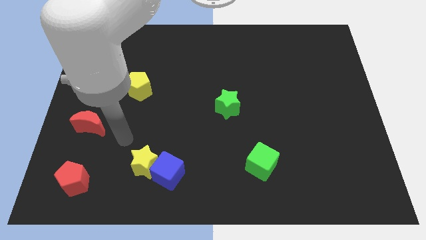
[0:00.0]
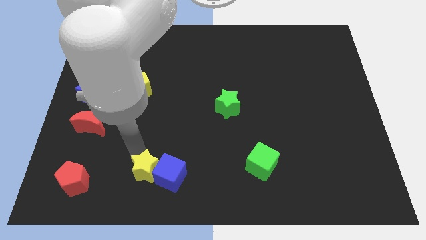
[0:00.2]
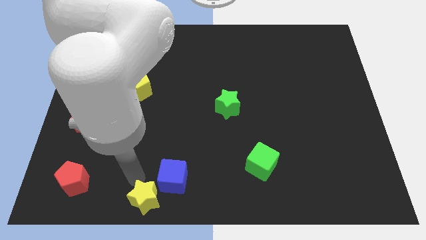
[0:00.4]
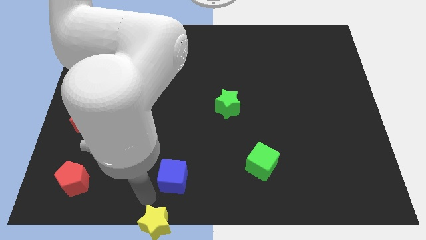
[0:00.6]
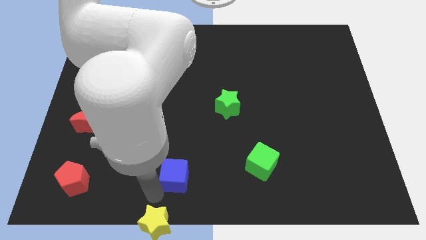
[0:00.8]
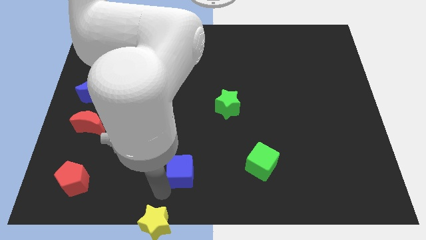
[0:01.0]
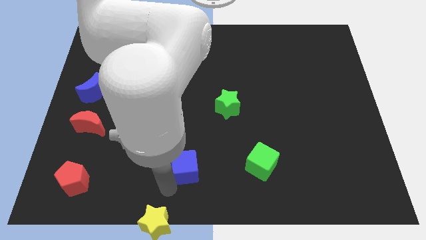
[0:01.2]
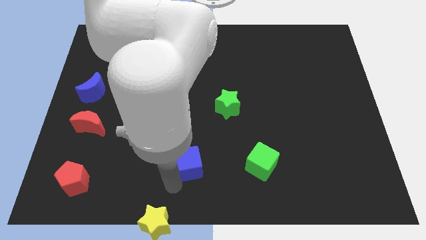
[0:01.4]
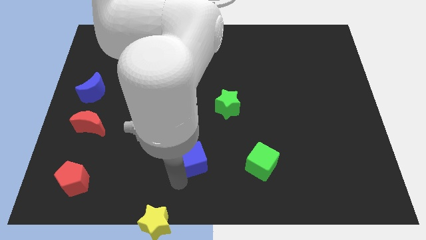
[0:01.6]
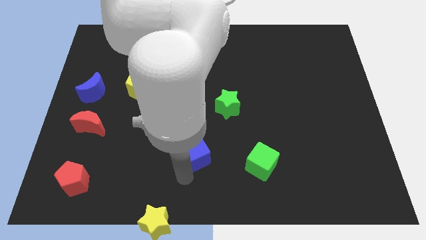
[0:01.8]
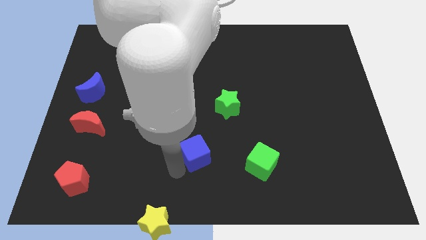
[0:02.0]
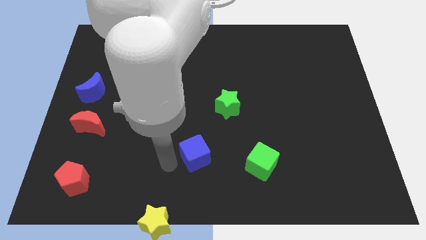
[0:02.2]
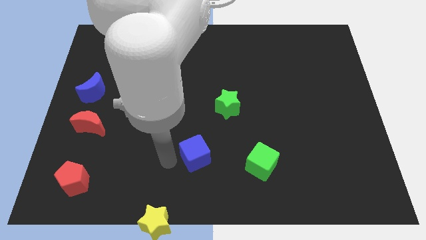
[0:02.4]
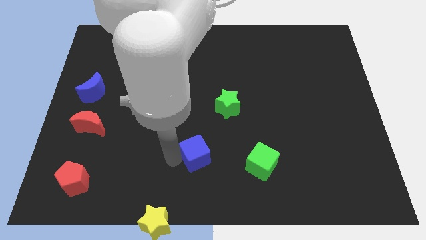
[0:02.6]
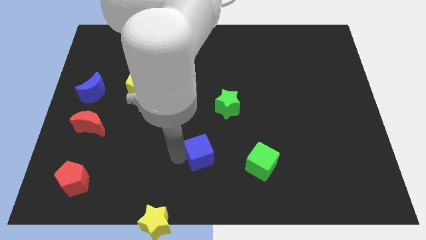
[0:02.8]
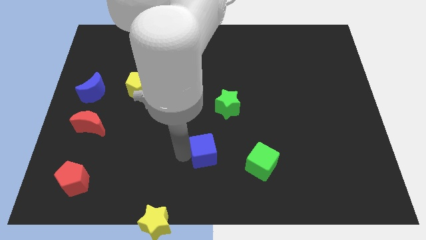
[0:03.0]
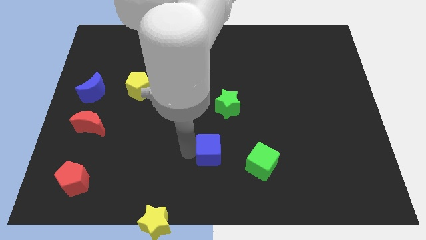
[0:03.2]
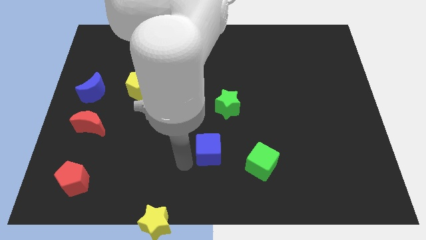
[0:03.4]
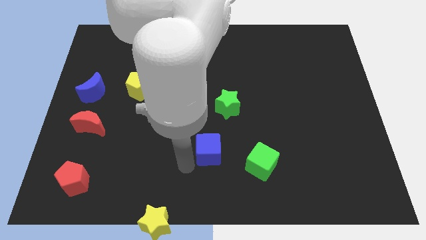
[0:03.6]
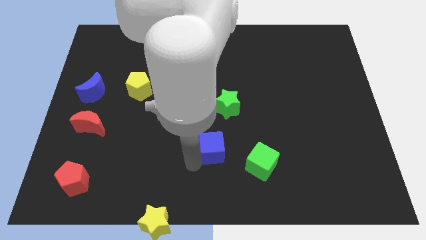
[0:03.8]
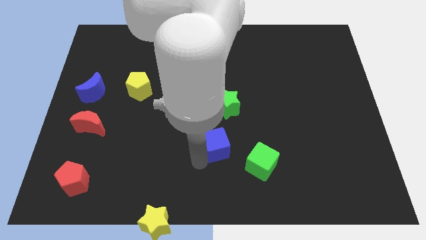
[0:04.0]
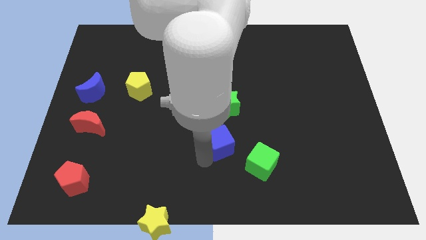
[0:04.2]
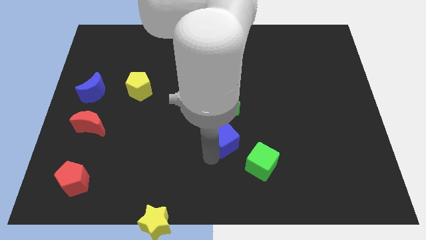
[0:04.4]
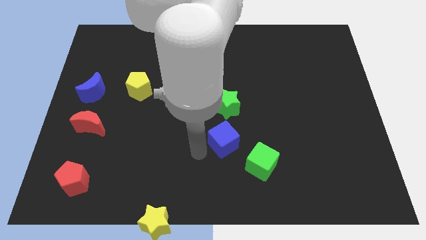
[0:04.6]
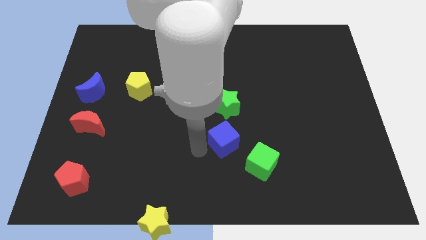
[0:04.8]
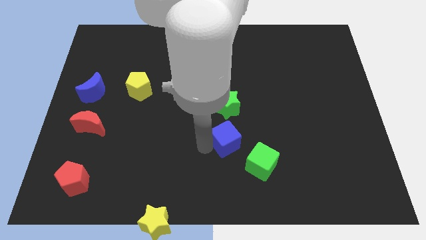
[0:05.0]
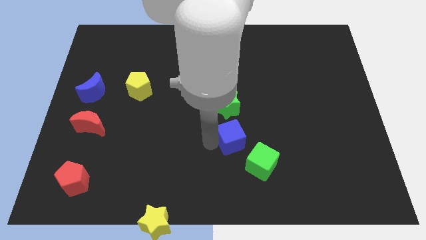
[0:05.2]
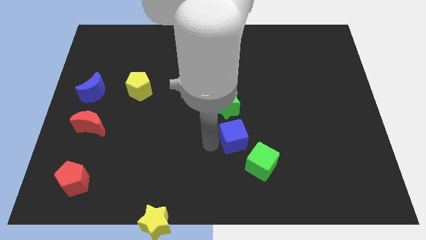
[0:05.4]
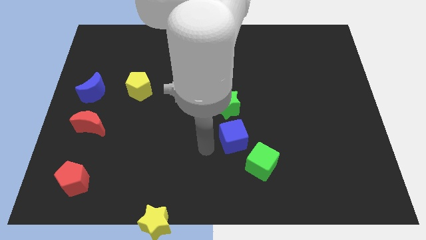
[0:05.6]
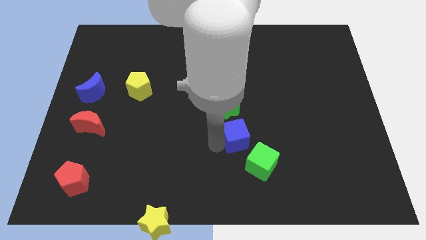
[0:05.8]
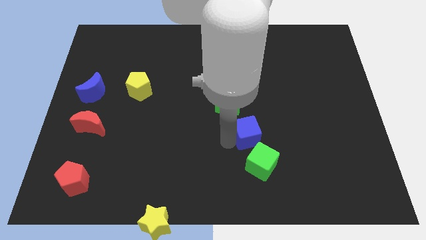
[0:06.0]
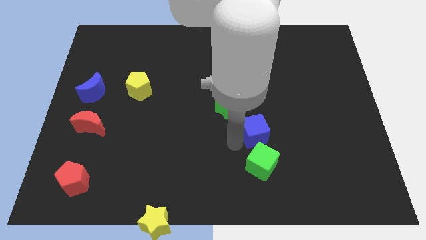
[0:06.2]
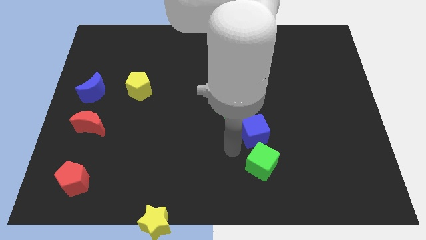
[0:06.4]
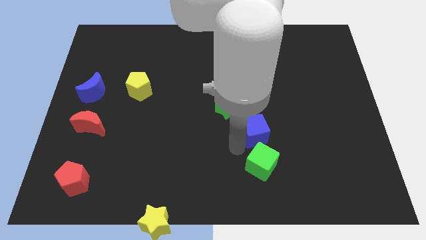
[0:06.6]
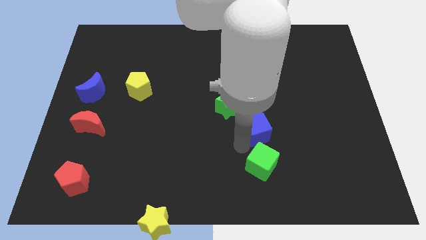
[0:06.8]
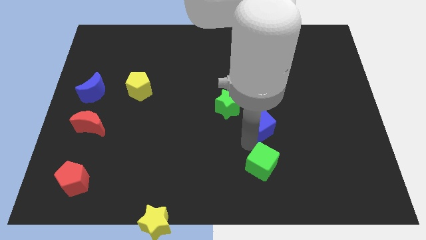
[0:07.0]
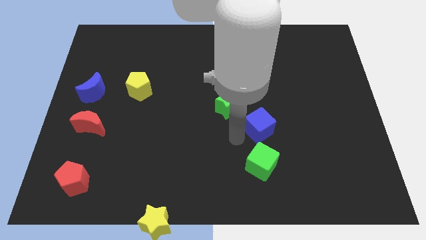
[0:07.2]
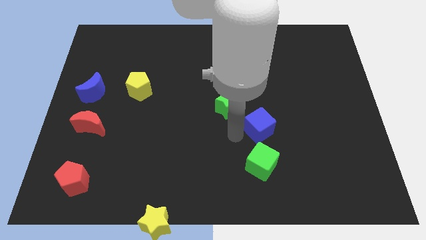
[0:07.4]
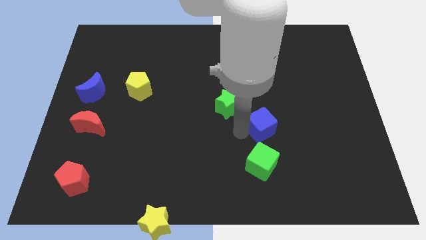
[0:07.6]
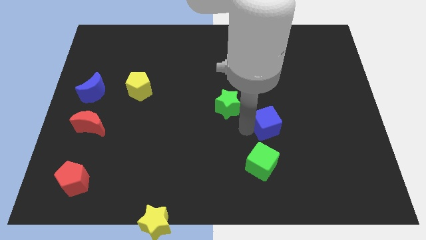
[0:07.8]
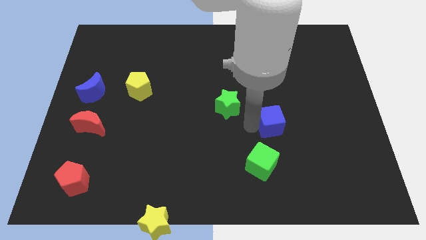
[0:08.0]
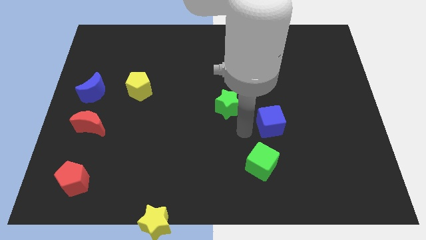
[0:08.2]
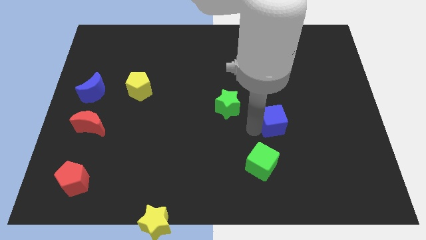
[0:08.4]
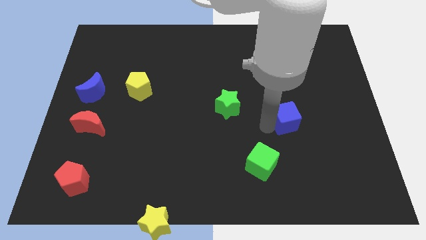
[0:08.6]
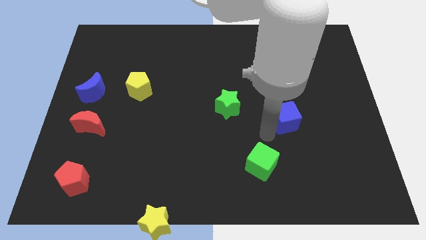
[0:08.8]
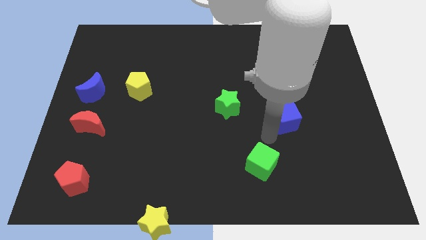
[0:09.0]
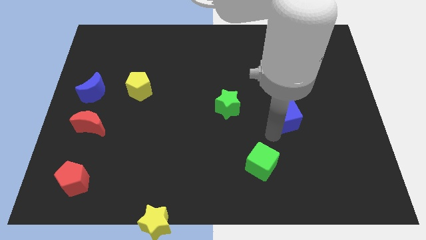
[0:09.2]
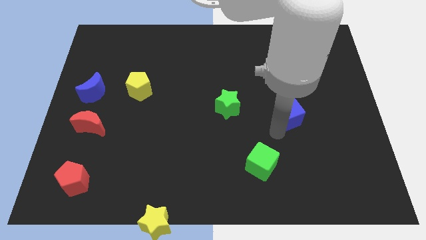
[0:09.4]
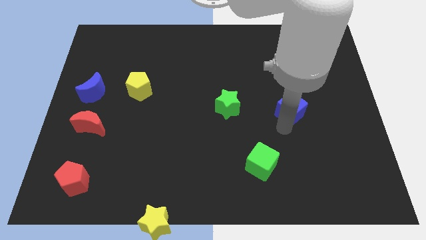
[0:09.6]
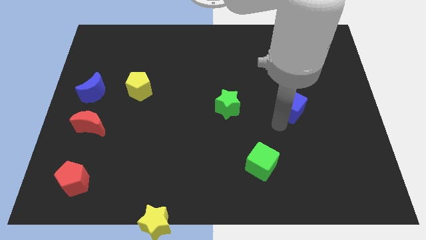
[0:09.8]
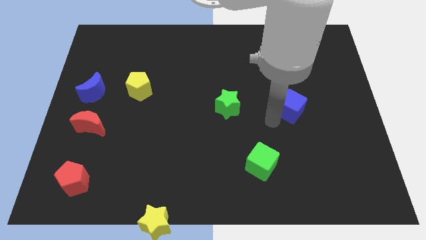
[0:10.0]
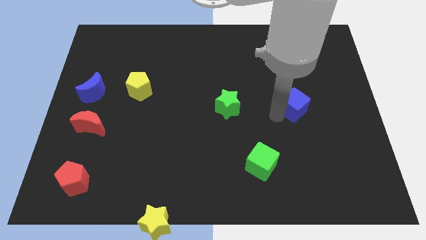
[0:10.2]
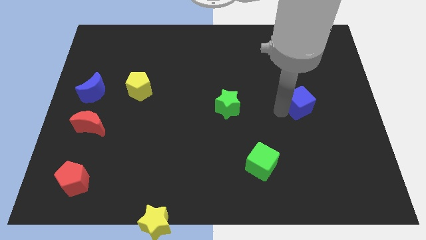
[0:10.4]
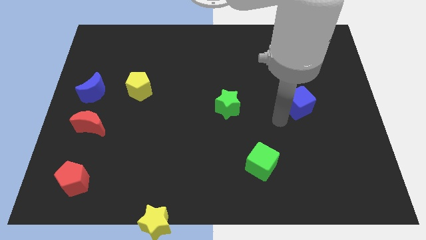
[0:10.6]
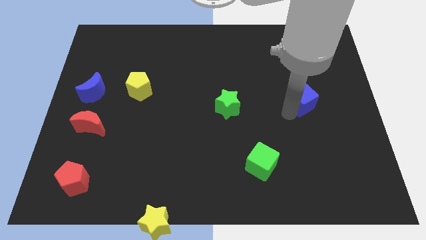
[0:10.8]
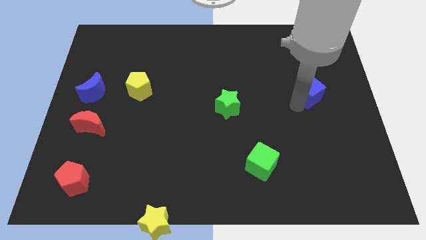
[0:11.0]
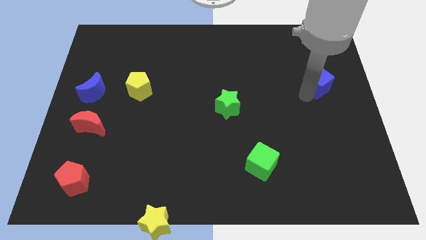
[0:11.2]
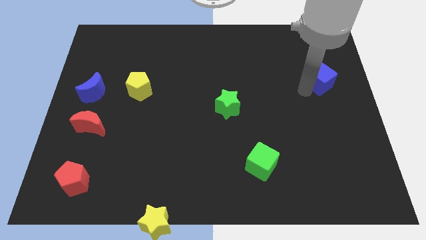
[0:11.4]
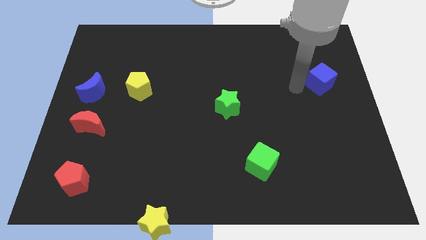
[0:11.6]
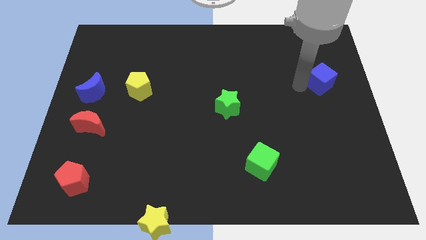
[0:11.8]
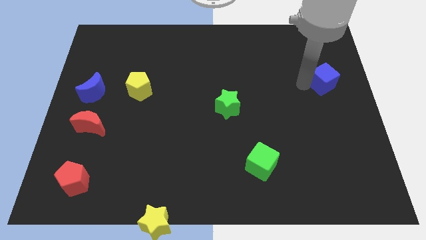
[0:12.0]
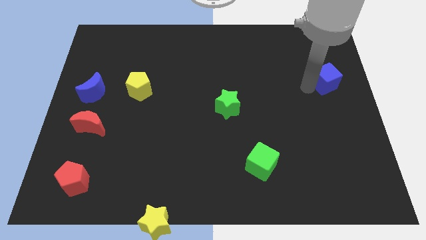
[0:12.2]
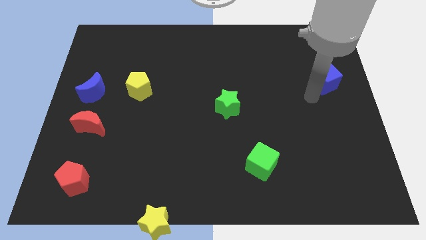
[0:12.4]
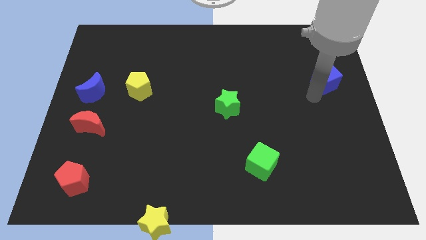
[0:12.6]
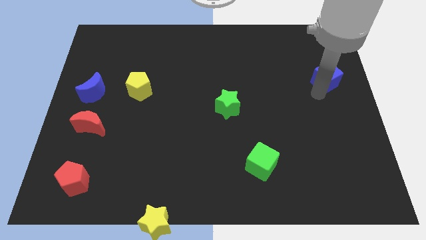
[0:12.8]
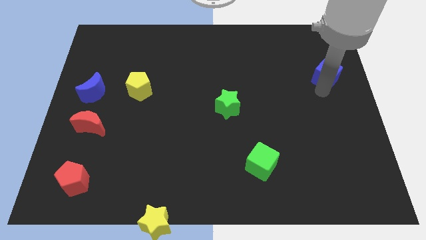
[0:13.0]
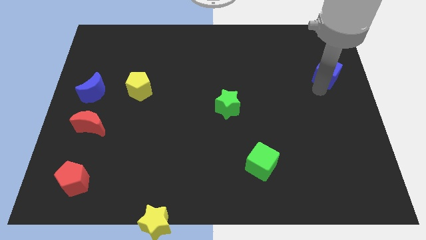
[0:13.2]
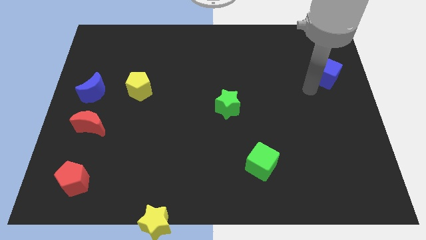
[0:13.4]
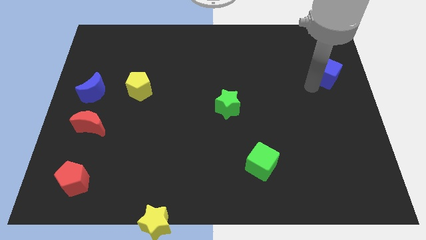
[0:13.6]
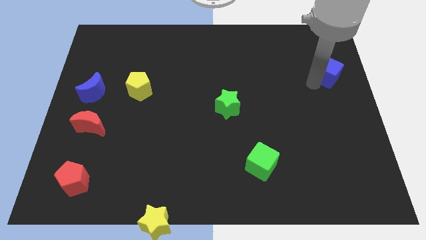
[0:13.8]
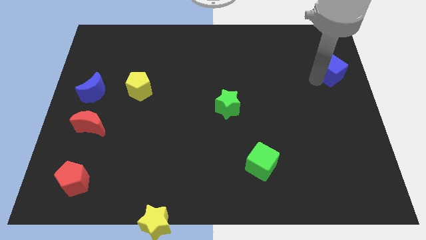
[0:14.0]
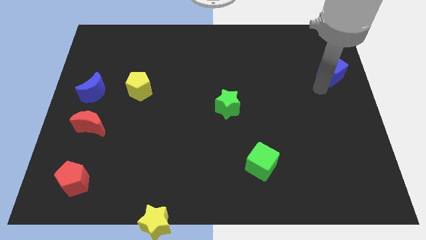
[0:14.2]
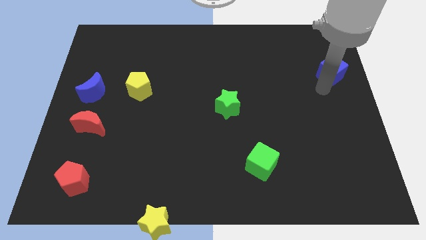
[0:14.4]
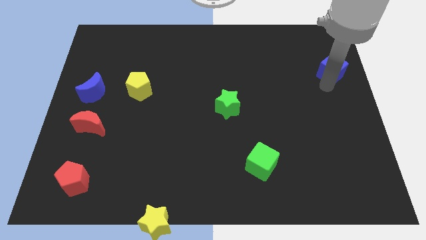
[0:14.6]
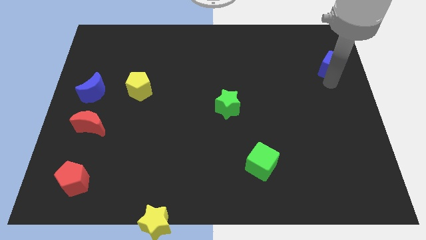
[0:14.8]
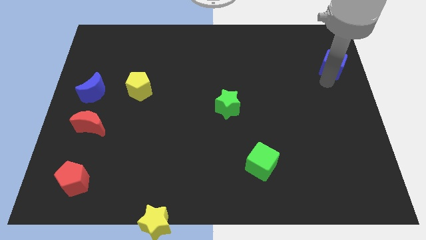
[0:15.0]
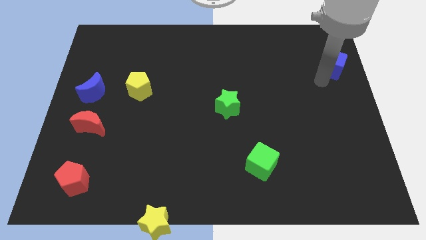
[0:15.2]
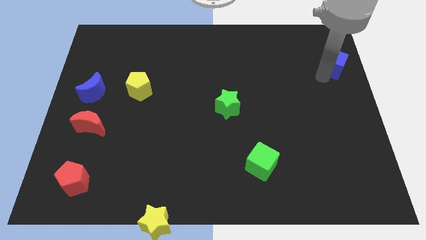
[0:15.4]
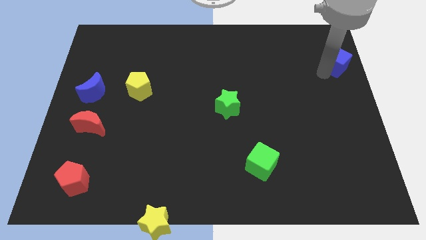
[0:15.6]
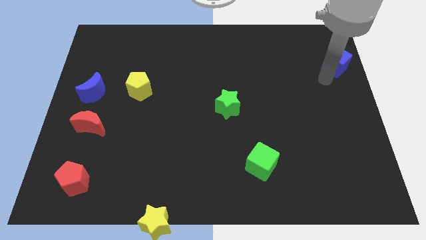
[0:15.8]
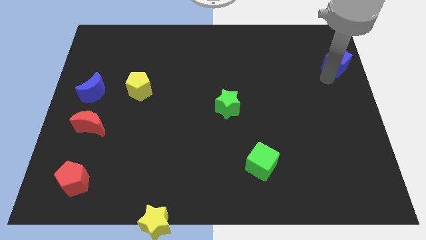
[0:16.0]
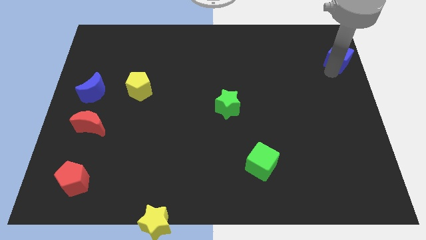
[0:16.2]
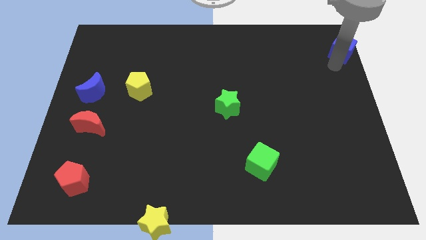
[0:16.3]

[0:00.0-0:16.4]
put the blue cube to the top right

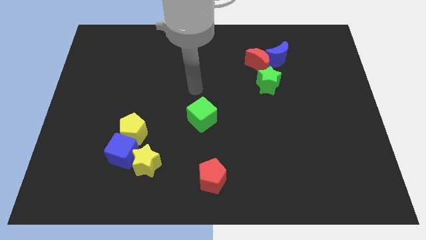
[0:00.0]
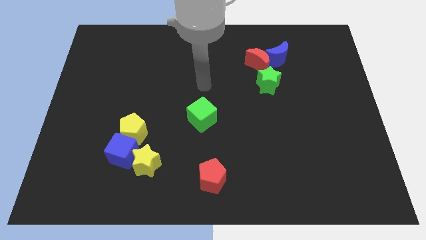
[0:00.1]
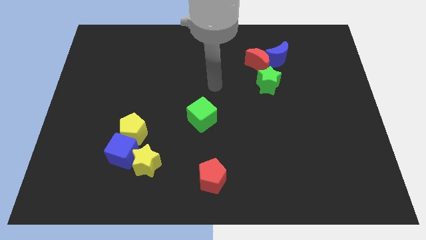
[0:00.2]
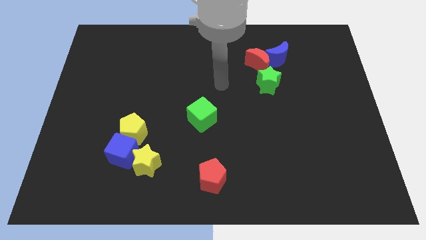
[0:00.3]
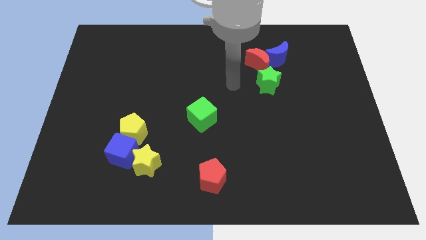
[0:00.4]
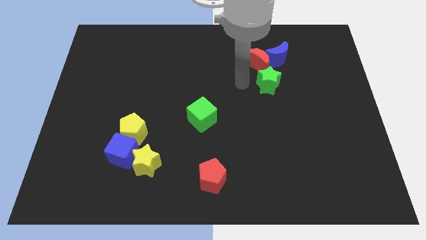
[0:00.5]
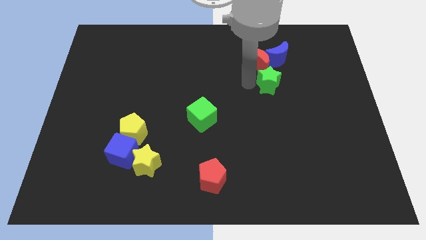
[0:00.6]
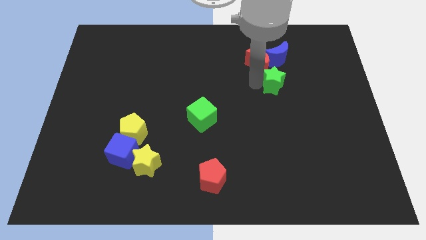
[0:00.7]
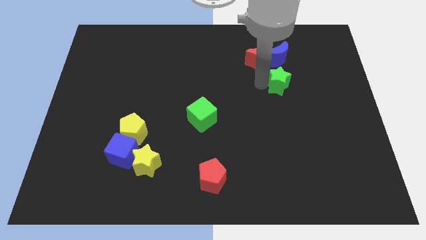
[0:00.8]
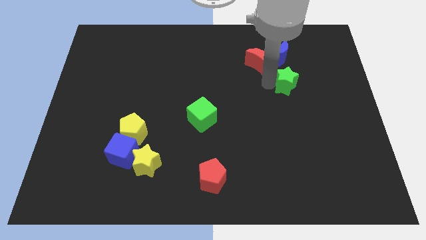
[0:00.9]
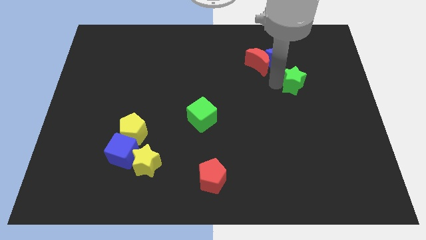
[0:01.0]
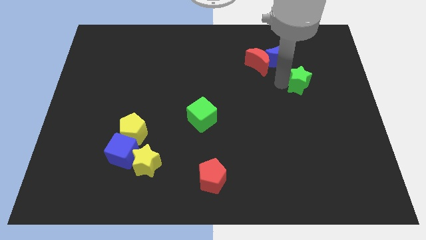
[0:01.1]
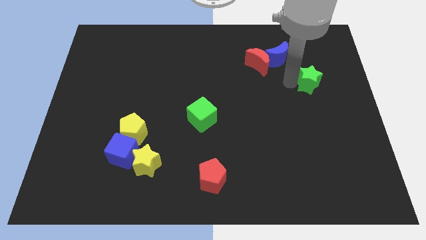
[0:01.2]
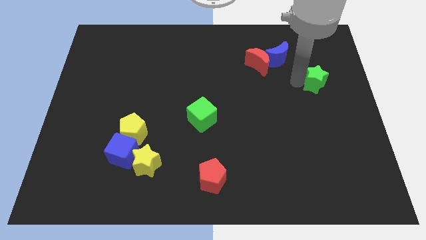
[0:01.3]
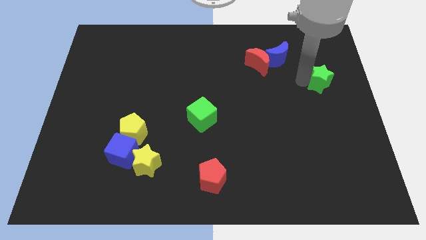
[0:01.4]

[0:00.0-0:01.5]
put the green star to the center right
